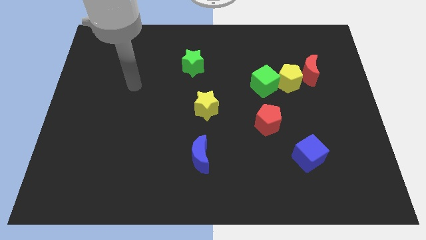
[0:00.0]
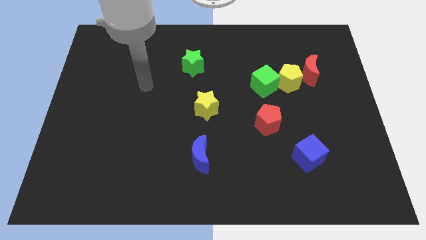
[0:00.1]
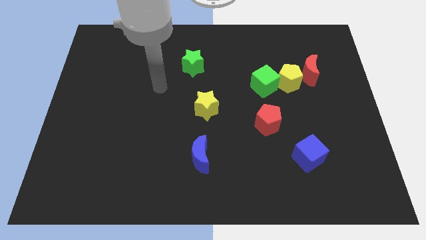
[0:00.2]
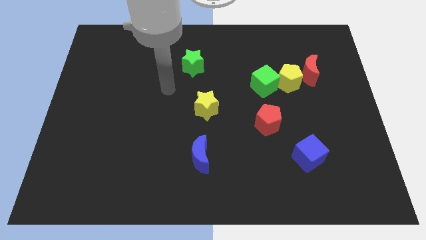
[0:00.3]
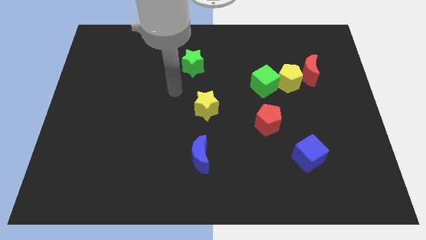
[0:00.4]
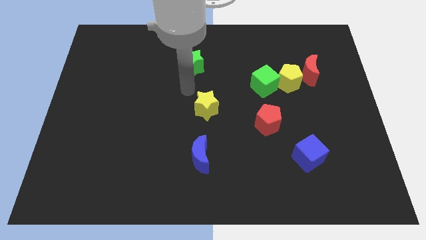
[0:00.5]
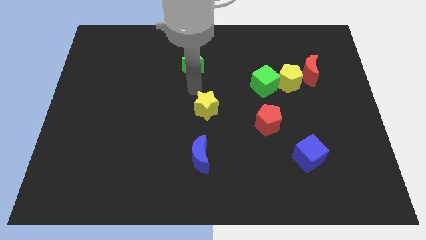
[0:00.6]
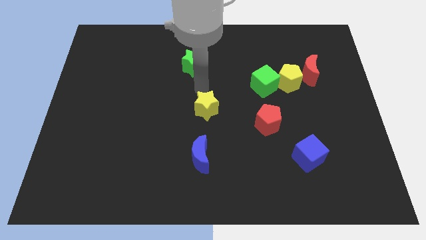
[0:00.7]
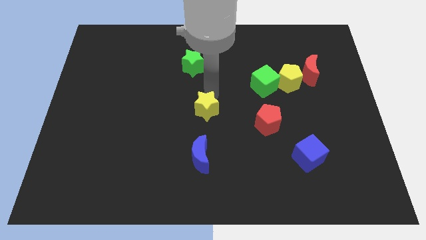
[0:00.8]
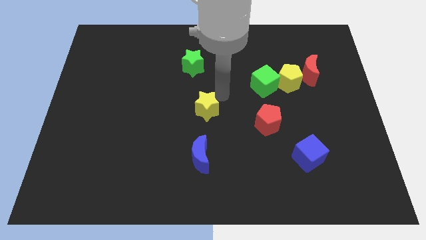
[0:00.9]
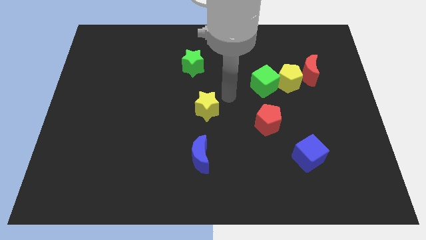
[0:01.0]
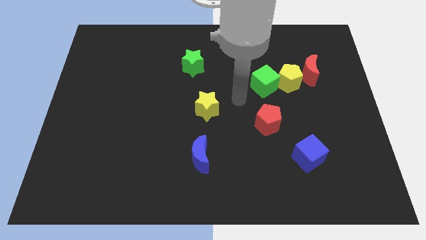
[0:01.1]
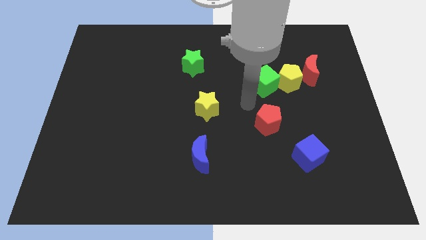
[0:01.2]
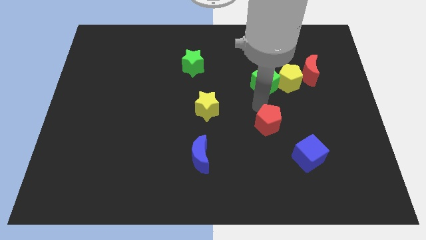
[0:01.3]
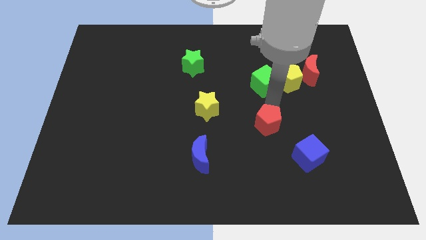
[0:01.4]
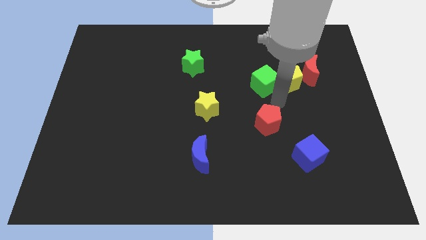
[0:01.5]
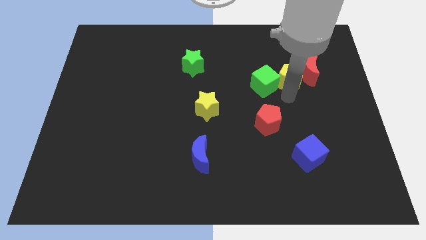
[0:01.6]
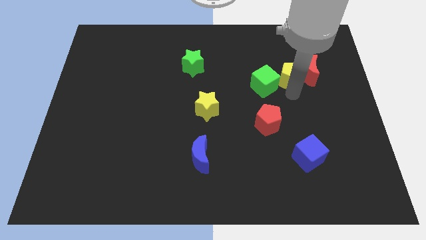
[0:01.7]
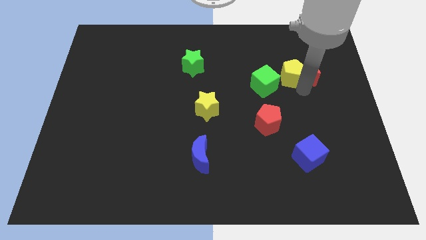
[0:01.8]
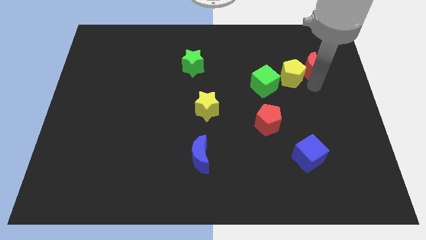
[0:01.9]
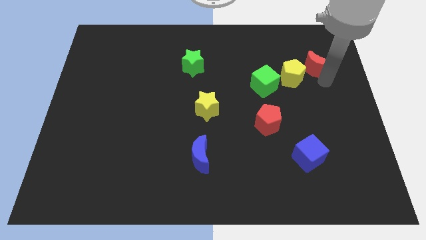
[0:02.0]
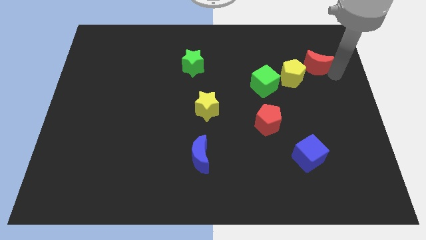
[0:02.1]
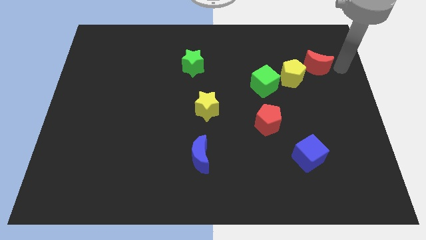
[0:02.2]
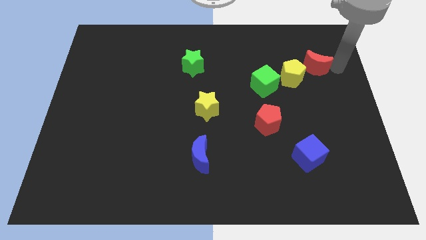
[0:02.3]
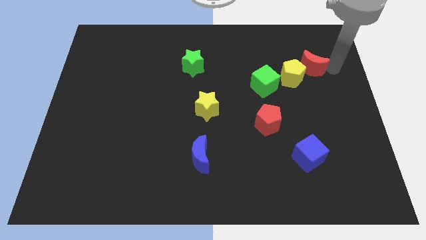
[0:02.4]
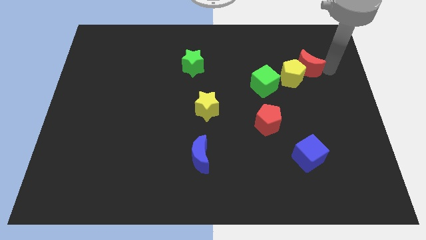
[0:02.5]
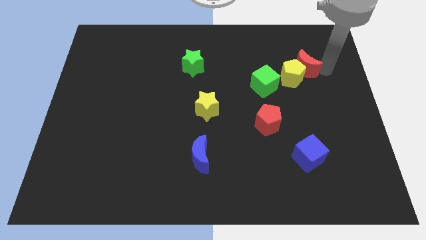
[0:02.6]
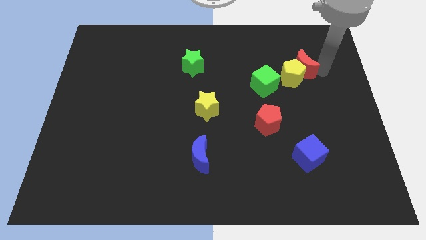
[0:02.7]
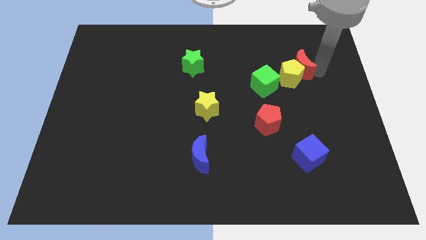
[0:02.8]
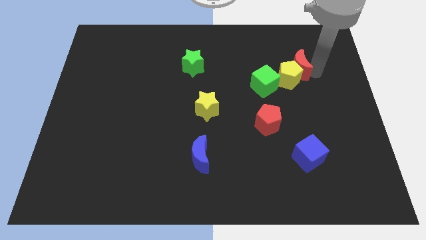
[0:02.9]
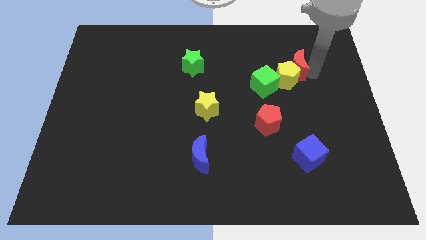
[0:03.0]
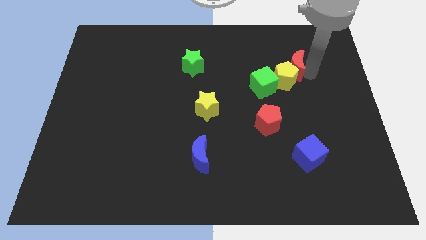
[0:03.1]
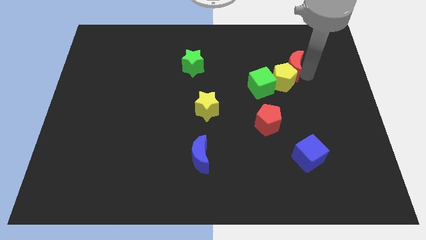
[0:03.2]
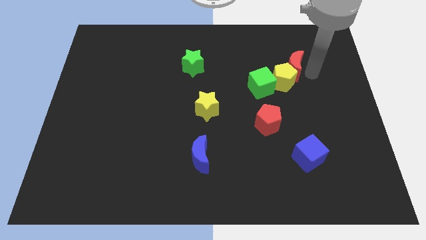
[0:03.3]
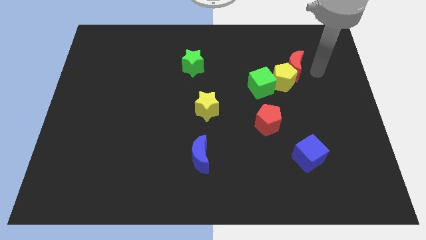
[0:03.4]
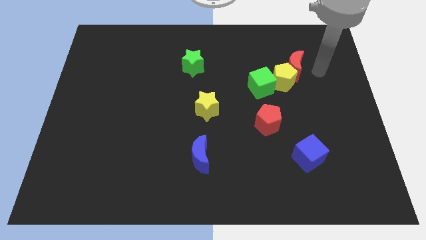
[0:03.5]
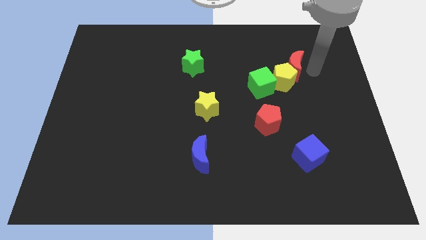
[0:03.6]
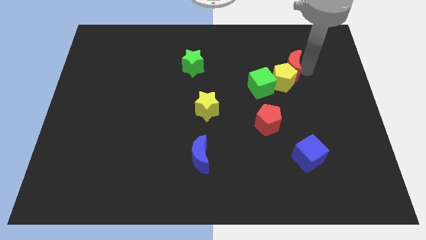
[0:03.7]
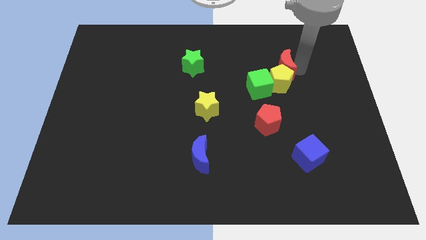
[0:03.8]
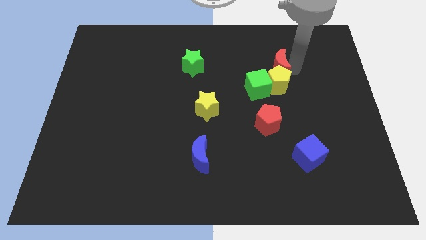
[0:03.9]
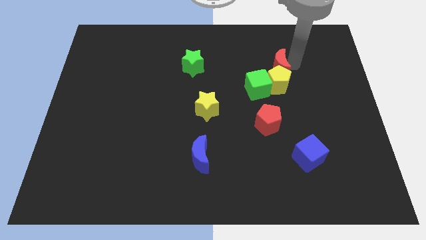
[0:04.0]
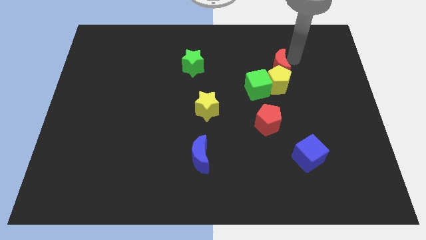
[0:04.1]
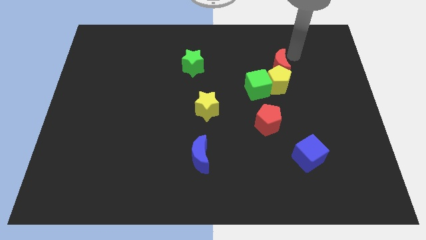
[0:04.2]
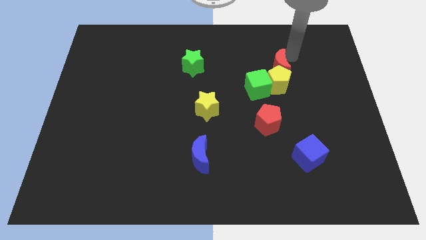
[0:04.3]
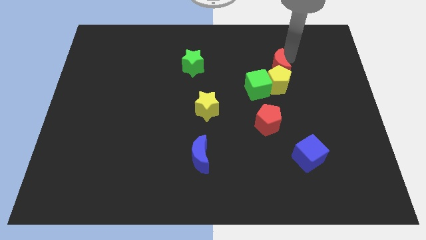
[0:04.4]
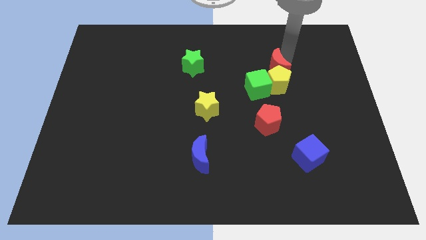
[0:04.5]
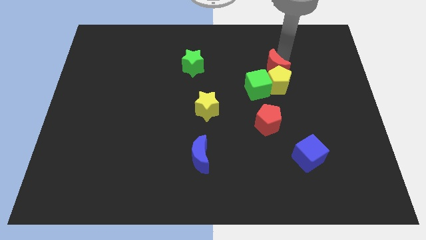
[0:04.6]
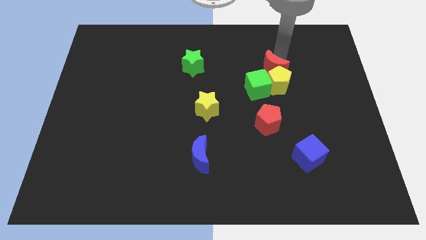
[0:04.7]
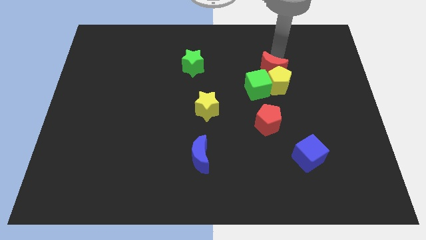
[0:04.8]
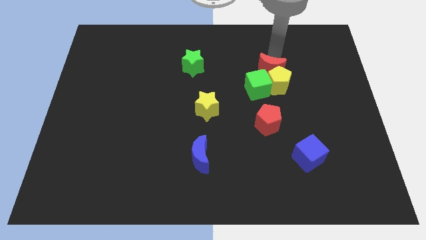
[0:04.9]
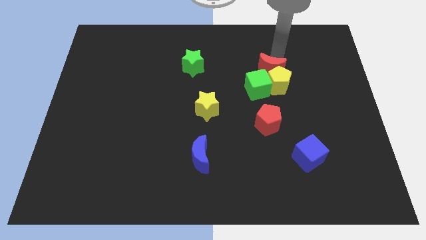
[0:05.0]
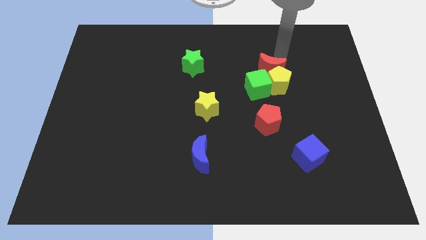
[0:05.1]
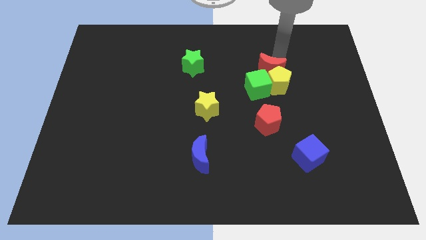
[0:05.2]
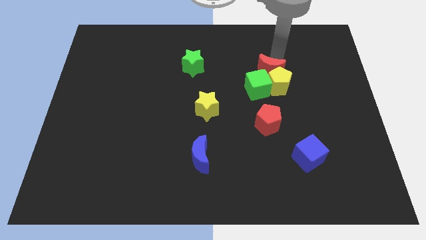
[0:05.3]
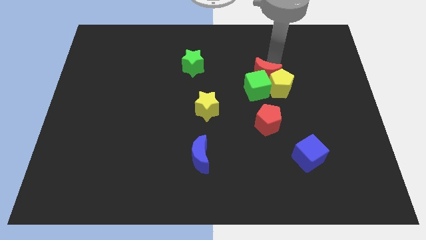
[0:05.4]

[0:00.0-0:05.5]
slide the red moon next to the green cube

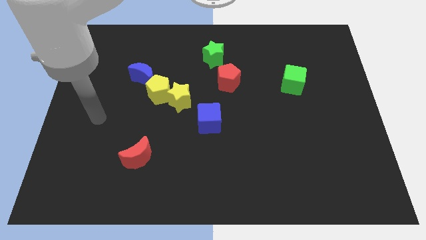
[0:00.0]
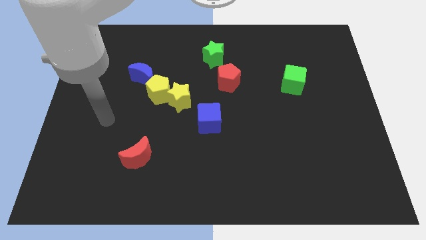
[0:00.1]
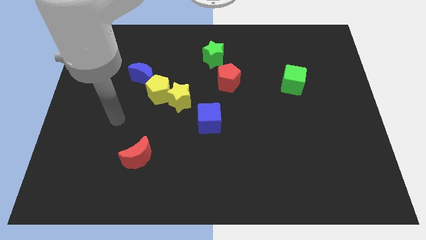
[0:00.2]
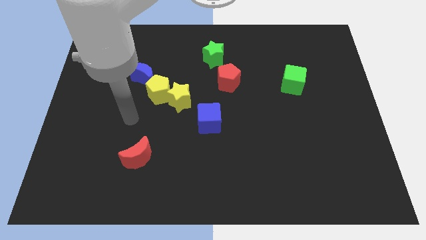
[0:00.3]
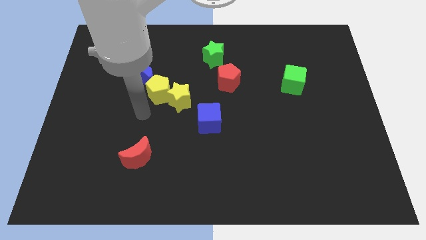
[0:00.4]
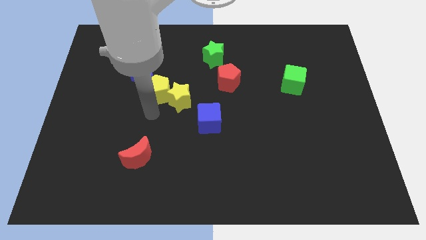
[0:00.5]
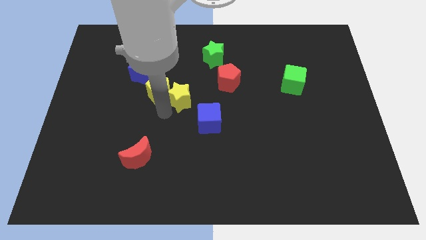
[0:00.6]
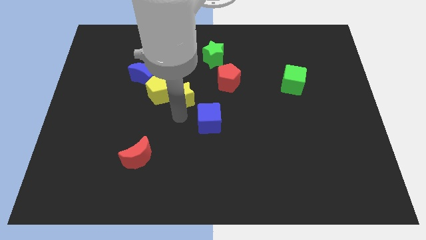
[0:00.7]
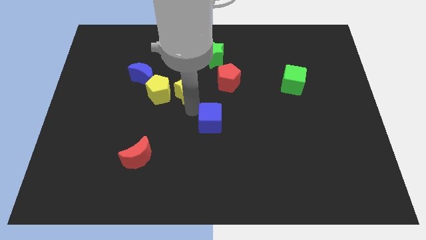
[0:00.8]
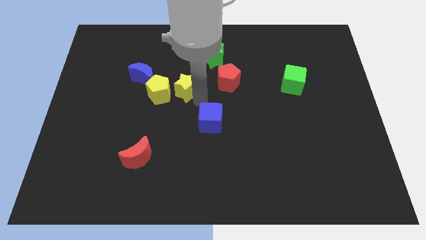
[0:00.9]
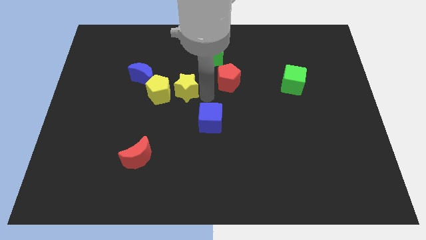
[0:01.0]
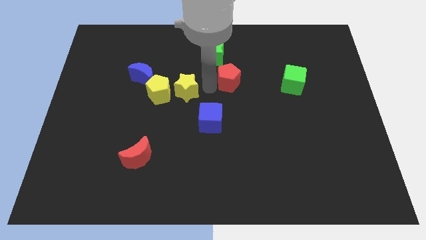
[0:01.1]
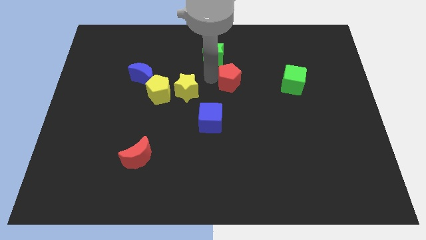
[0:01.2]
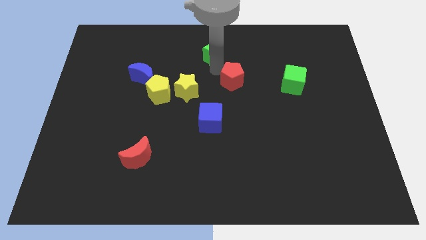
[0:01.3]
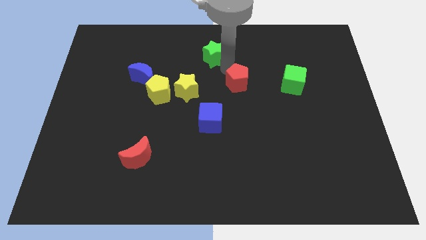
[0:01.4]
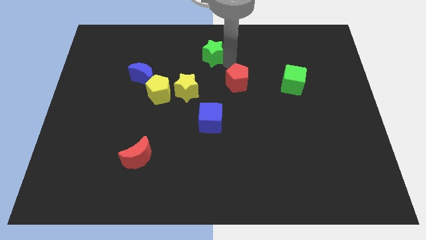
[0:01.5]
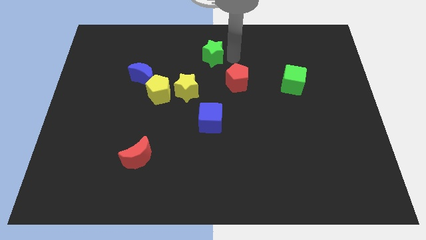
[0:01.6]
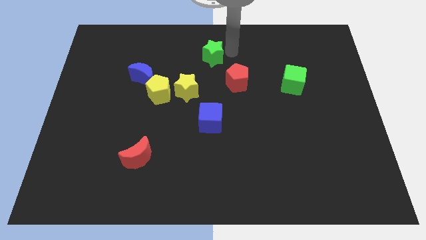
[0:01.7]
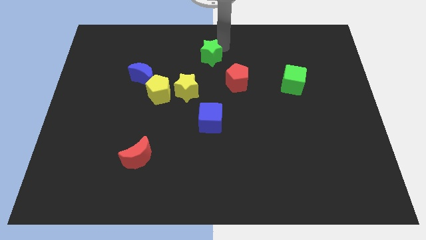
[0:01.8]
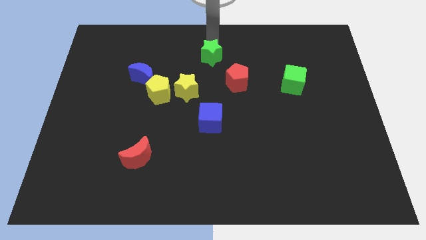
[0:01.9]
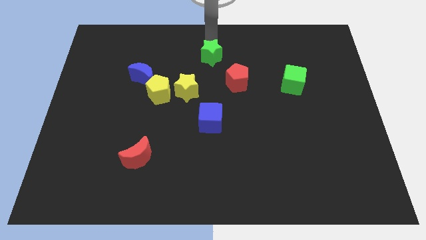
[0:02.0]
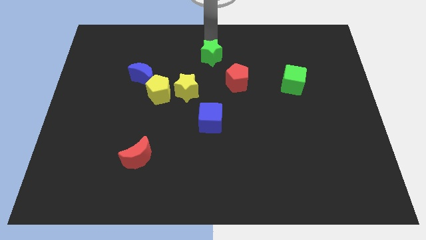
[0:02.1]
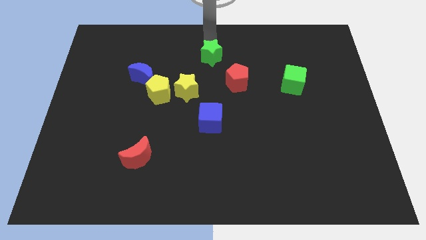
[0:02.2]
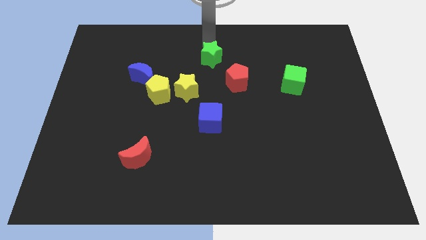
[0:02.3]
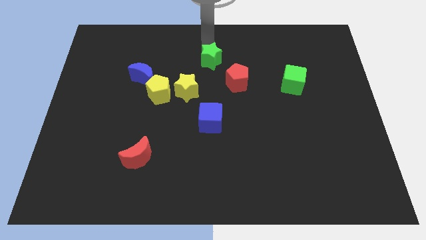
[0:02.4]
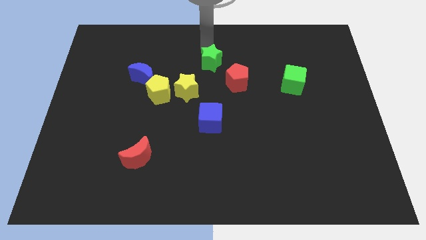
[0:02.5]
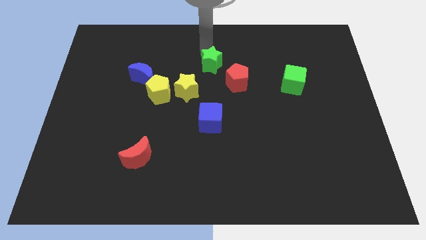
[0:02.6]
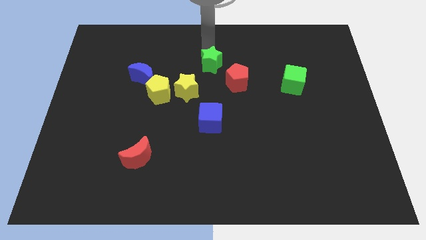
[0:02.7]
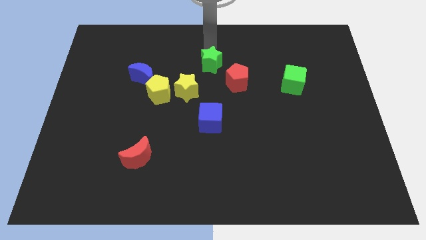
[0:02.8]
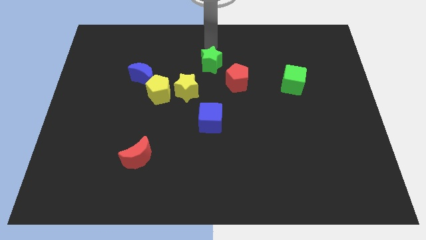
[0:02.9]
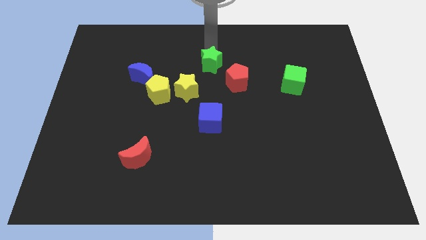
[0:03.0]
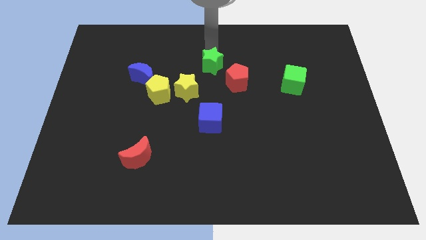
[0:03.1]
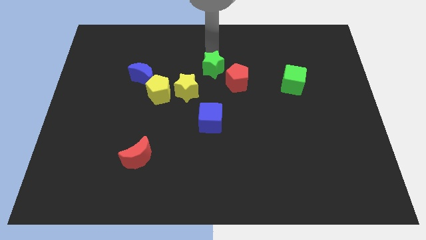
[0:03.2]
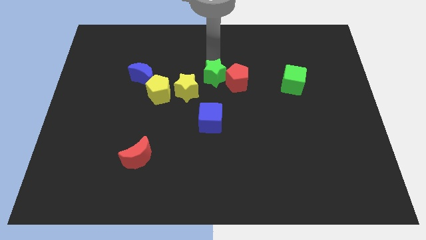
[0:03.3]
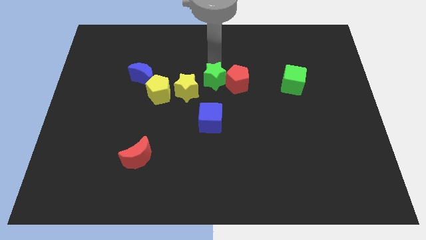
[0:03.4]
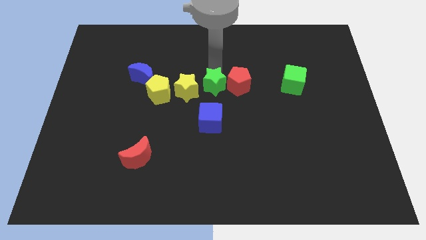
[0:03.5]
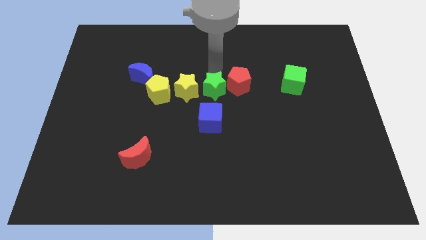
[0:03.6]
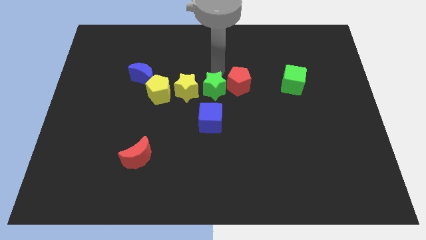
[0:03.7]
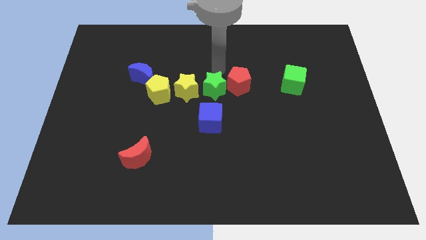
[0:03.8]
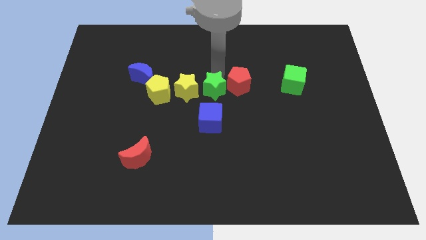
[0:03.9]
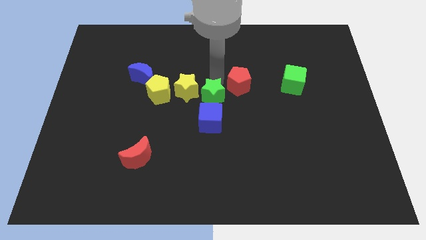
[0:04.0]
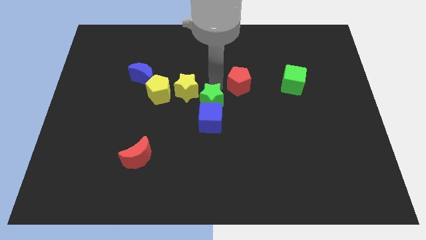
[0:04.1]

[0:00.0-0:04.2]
move the green star to the blue cube
